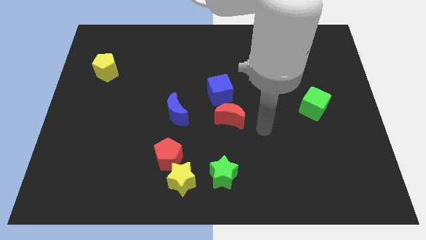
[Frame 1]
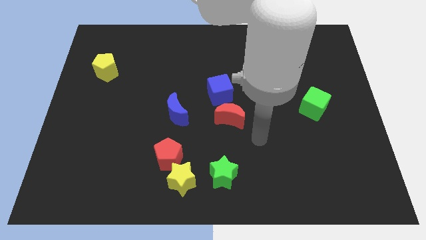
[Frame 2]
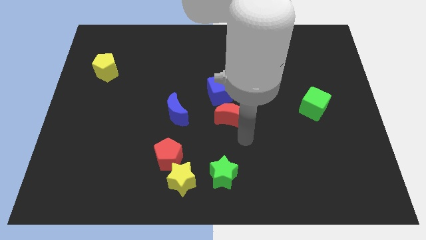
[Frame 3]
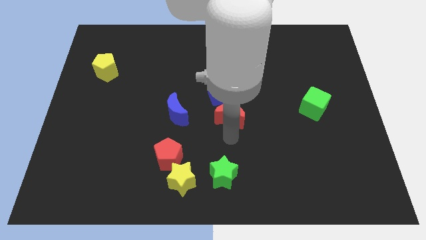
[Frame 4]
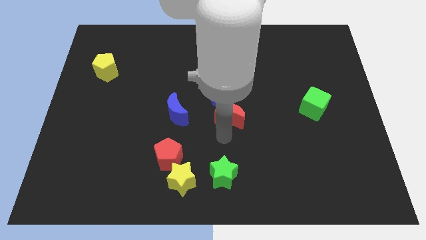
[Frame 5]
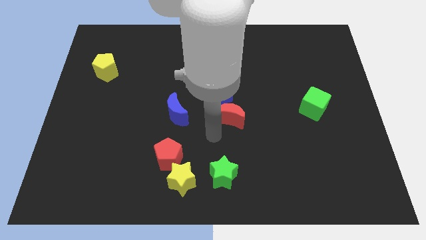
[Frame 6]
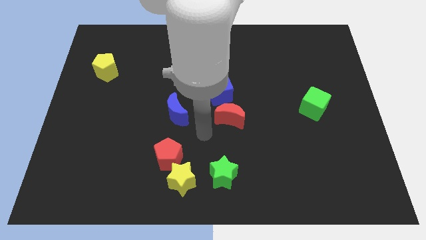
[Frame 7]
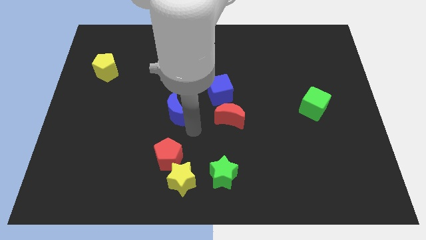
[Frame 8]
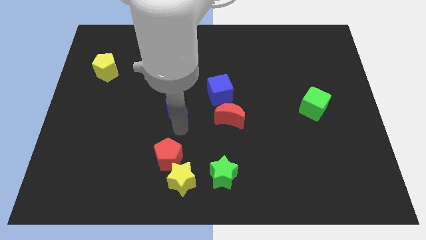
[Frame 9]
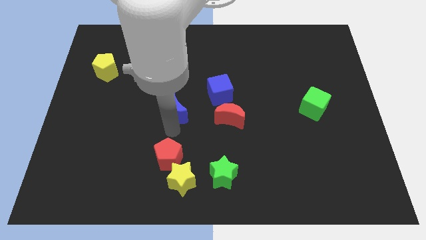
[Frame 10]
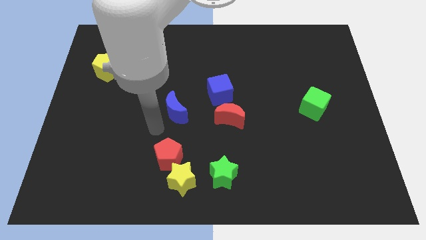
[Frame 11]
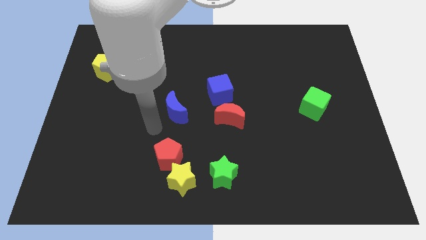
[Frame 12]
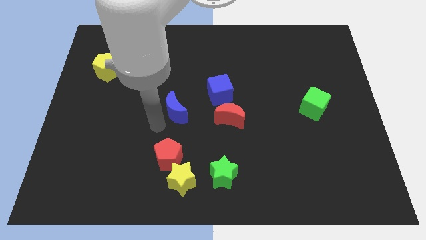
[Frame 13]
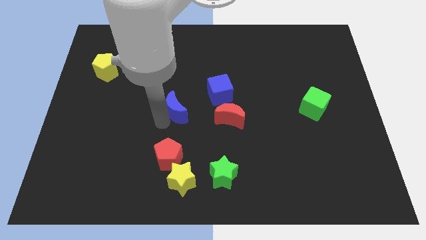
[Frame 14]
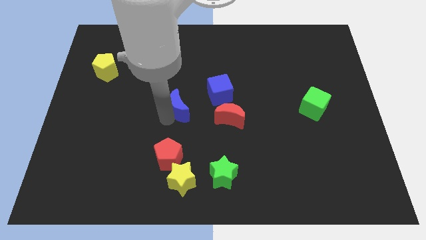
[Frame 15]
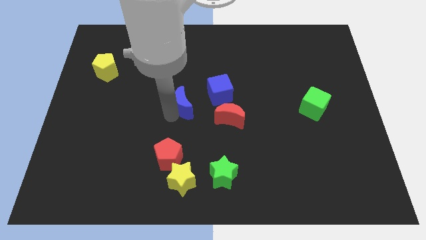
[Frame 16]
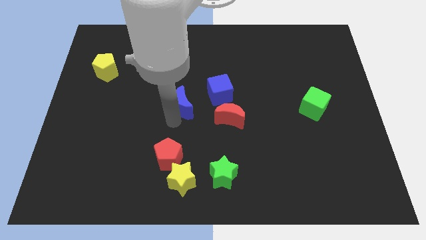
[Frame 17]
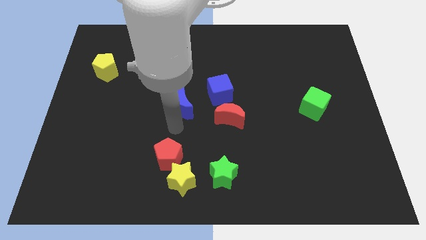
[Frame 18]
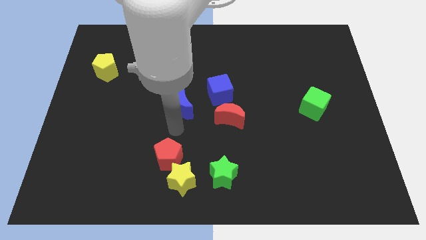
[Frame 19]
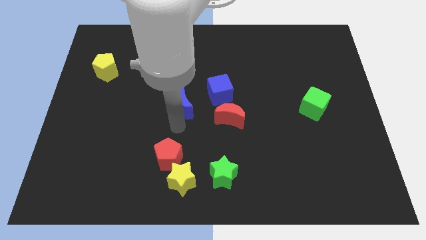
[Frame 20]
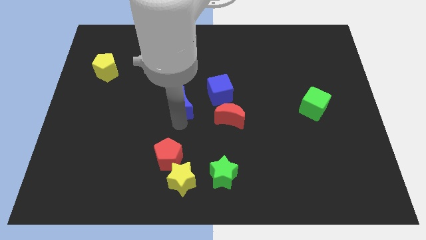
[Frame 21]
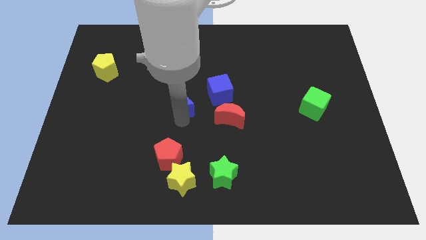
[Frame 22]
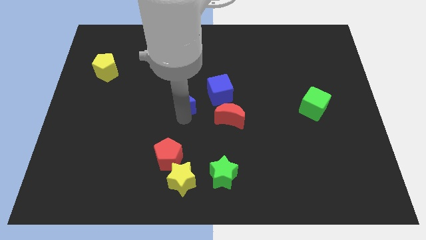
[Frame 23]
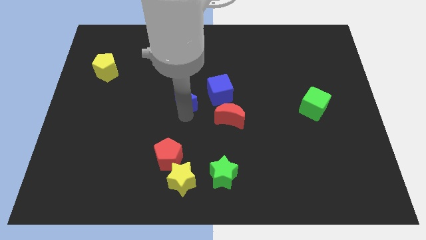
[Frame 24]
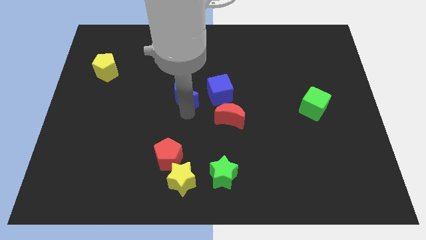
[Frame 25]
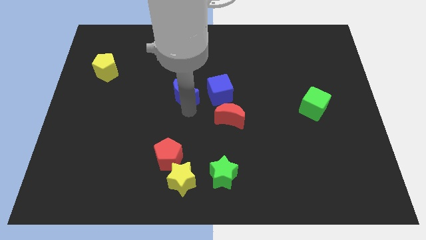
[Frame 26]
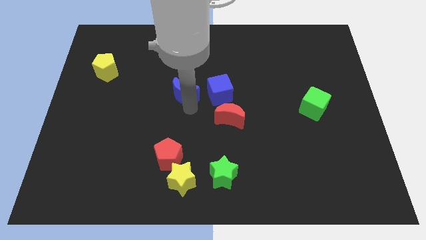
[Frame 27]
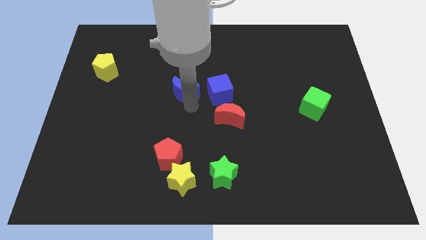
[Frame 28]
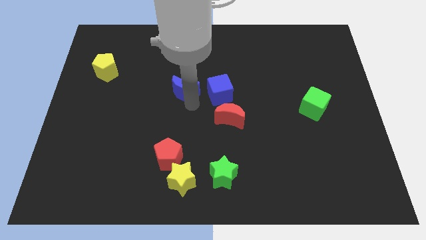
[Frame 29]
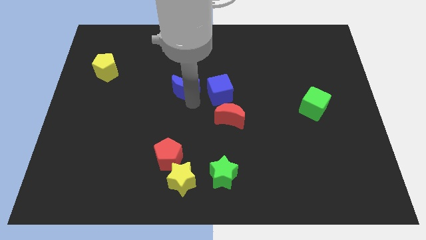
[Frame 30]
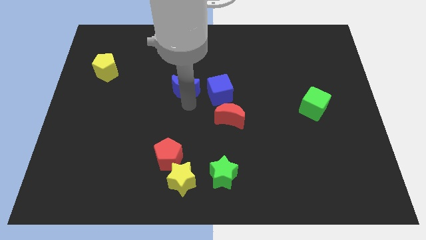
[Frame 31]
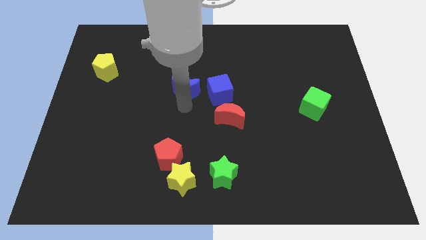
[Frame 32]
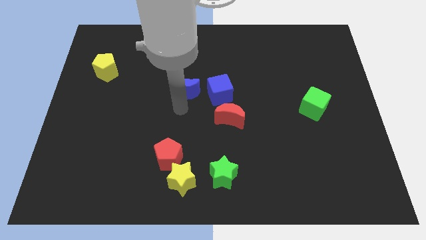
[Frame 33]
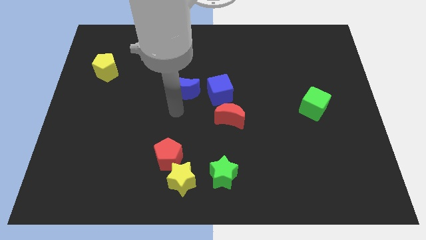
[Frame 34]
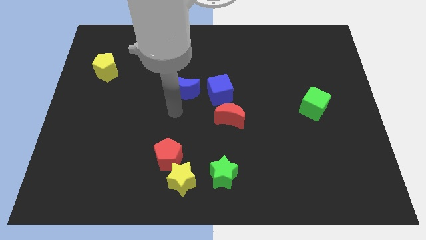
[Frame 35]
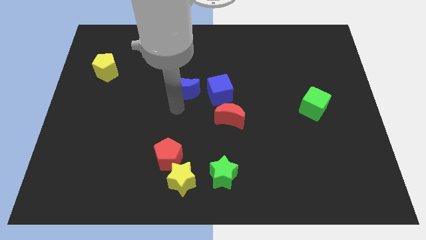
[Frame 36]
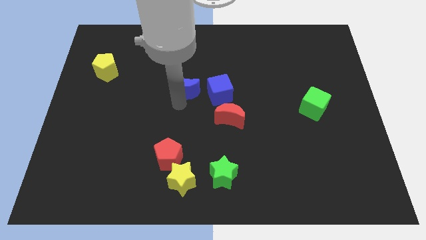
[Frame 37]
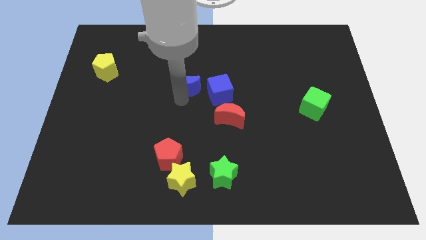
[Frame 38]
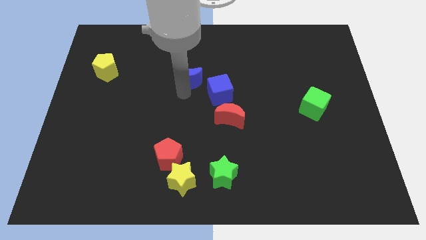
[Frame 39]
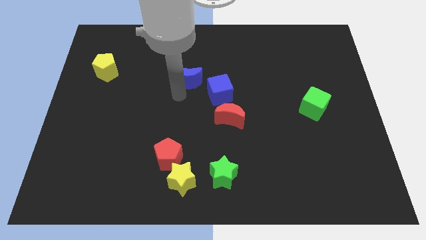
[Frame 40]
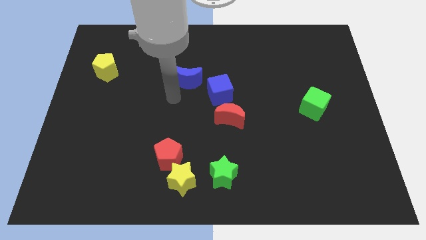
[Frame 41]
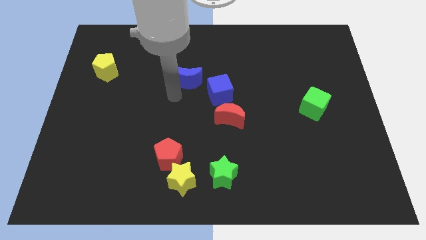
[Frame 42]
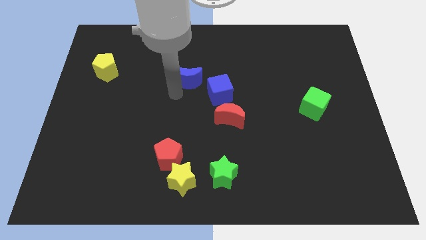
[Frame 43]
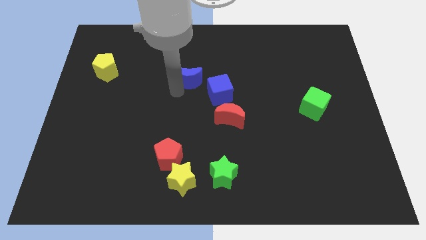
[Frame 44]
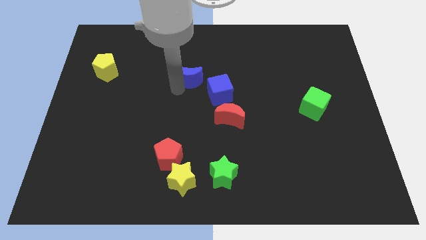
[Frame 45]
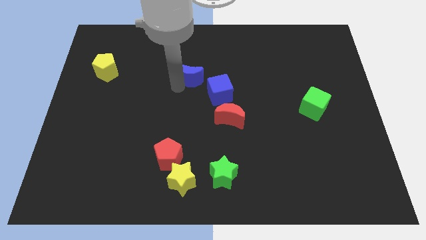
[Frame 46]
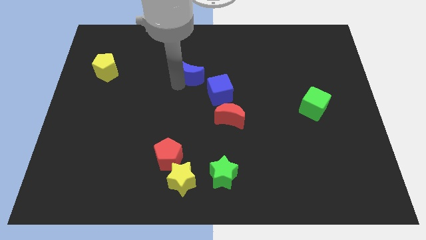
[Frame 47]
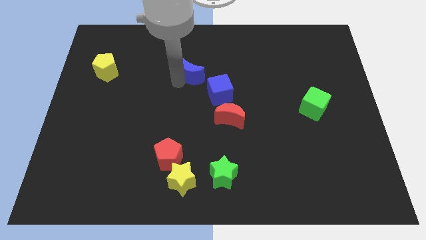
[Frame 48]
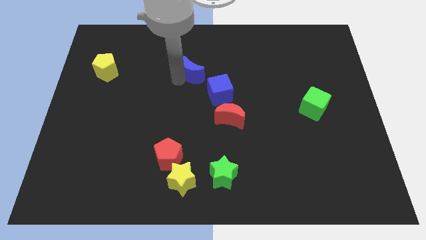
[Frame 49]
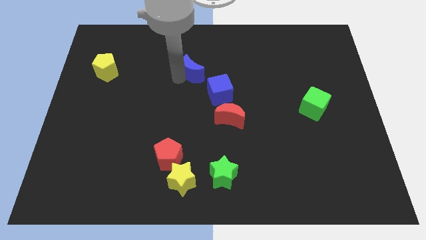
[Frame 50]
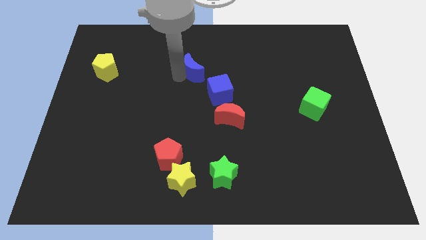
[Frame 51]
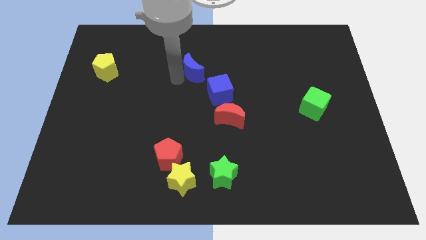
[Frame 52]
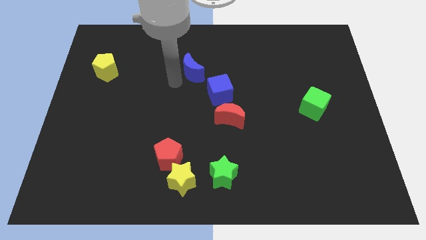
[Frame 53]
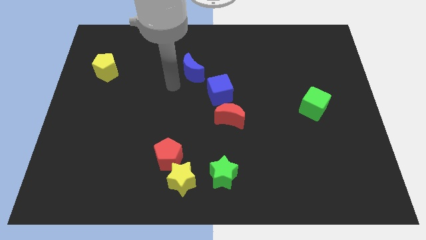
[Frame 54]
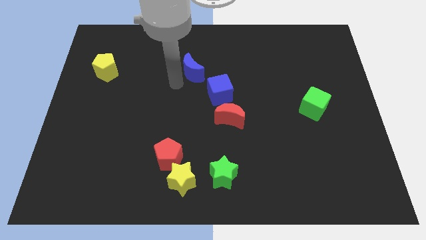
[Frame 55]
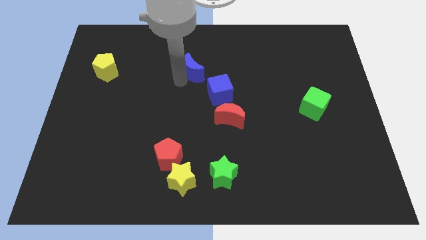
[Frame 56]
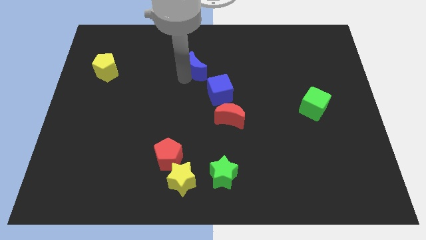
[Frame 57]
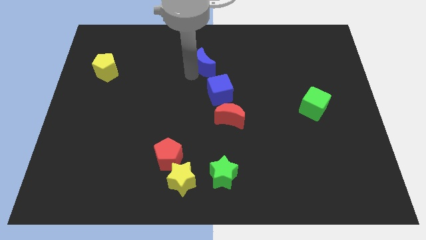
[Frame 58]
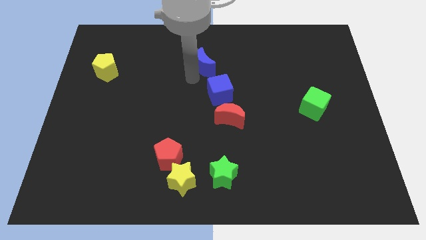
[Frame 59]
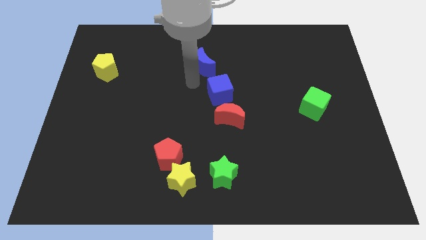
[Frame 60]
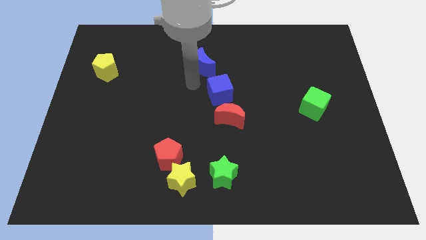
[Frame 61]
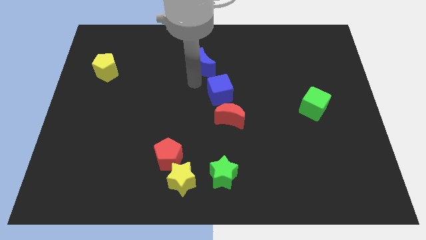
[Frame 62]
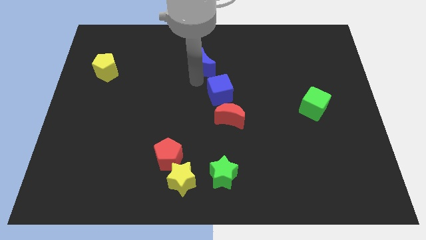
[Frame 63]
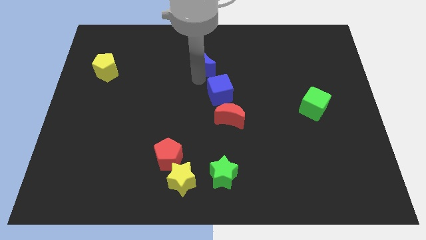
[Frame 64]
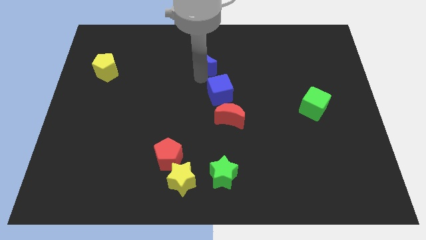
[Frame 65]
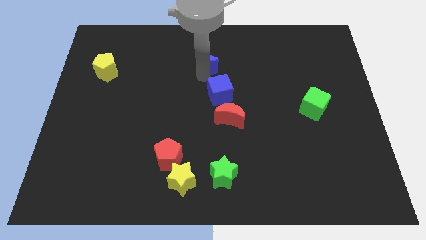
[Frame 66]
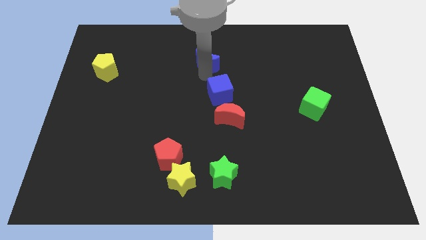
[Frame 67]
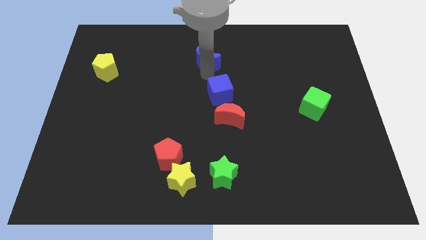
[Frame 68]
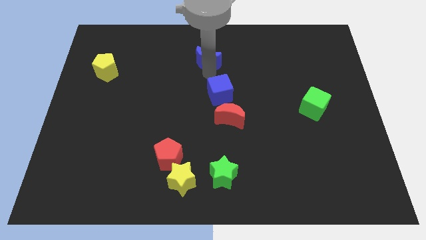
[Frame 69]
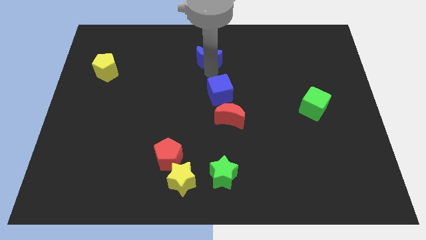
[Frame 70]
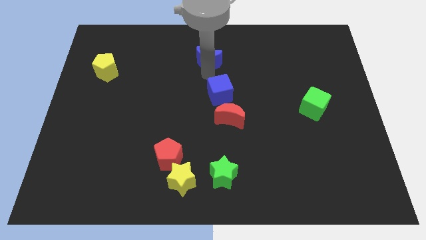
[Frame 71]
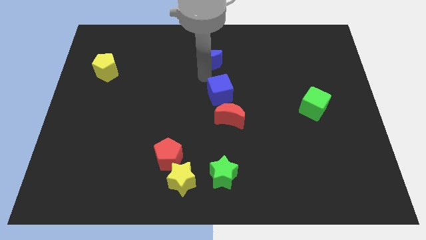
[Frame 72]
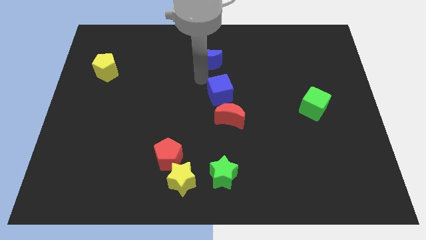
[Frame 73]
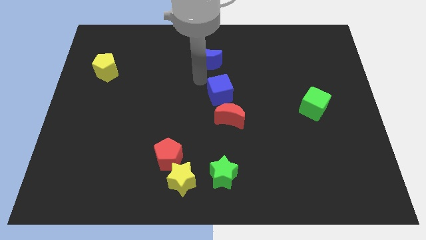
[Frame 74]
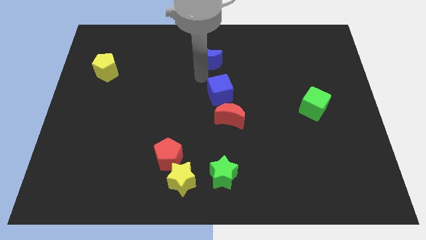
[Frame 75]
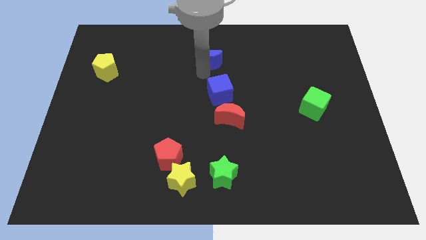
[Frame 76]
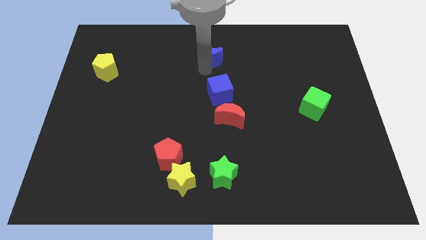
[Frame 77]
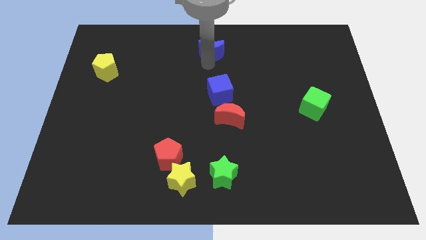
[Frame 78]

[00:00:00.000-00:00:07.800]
move the blue moon to the top
